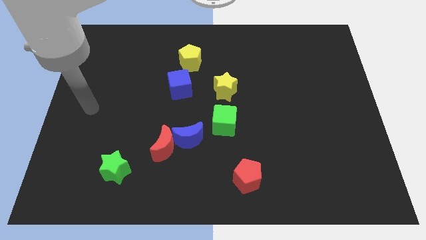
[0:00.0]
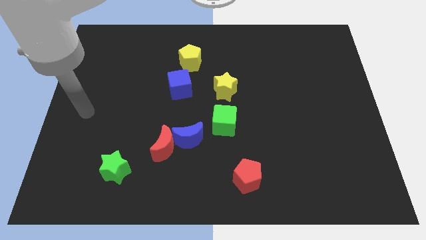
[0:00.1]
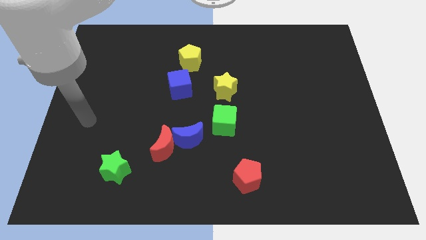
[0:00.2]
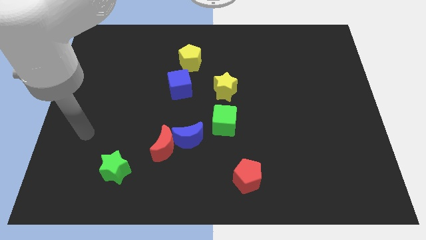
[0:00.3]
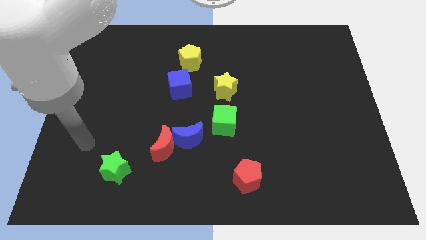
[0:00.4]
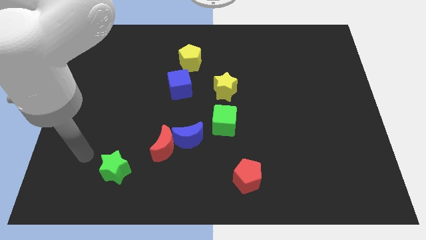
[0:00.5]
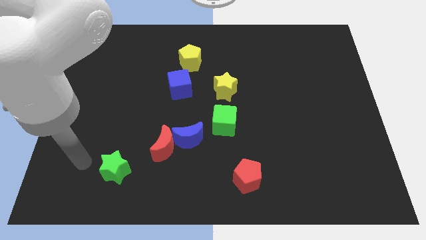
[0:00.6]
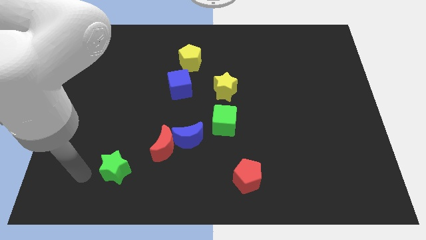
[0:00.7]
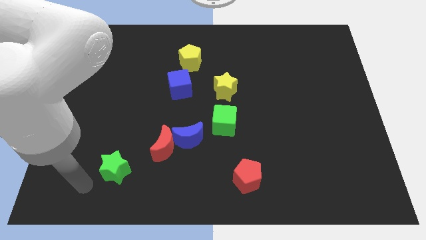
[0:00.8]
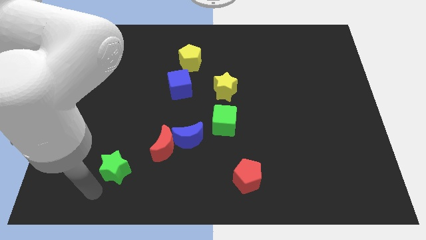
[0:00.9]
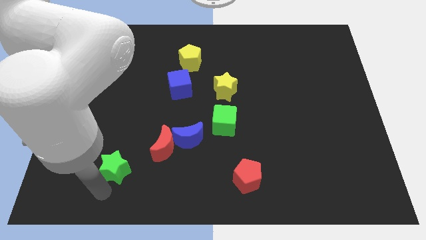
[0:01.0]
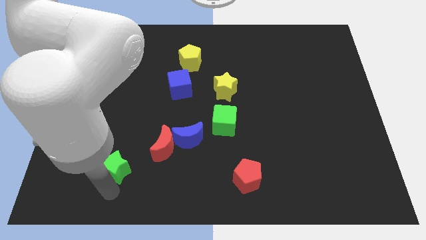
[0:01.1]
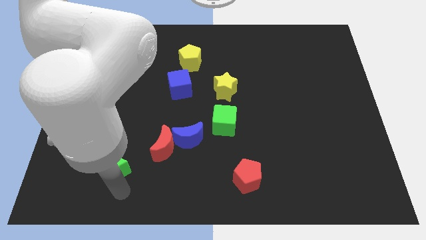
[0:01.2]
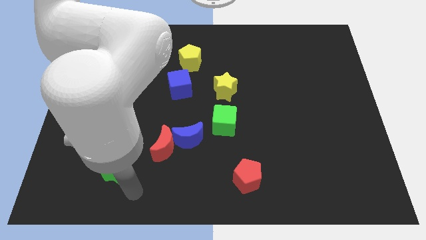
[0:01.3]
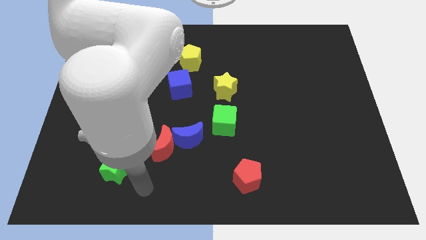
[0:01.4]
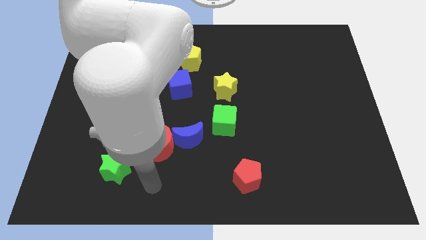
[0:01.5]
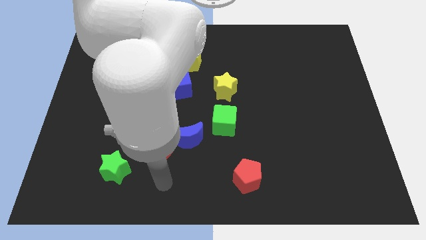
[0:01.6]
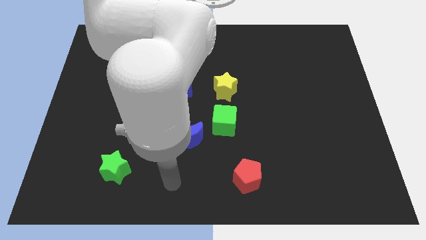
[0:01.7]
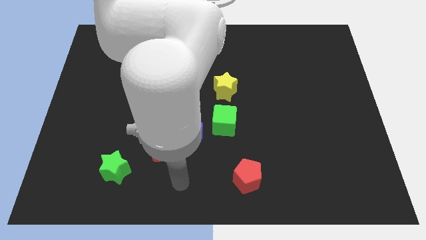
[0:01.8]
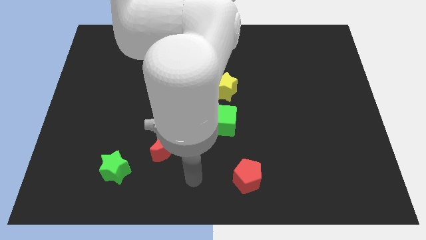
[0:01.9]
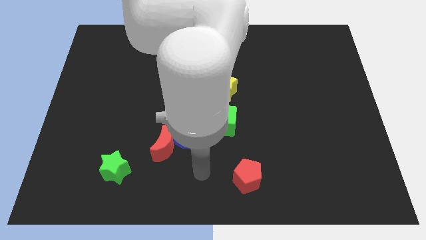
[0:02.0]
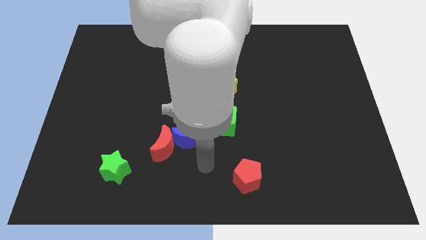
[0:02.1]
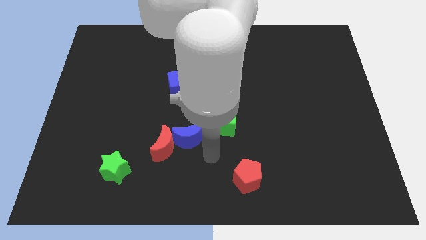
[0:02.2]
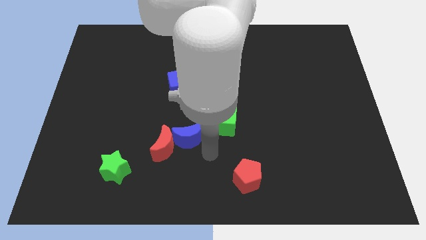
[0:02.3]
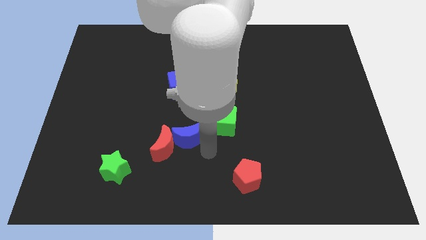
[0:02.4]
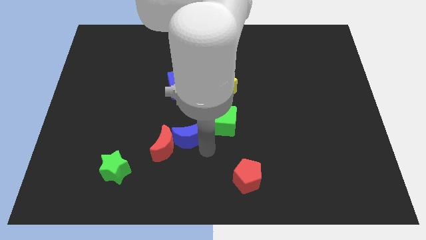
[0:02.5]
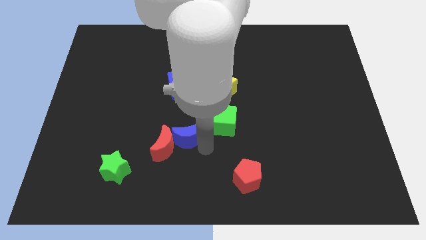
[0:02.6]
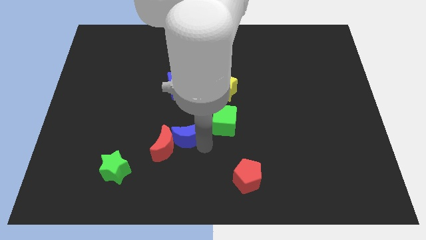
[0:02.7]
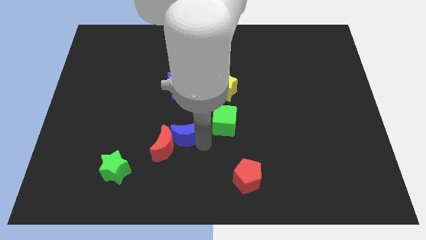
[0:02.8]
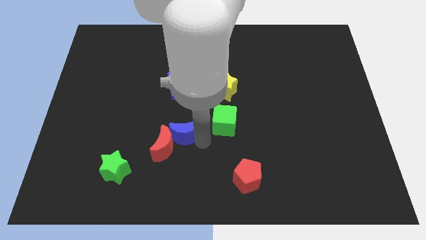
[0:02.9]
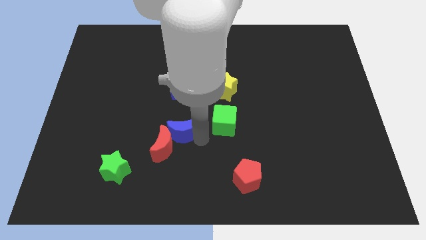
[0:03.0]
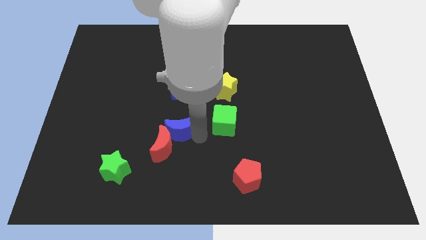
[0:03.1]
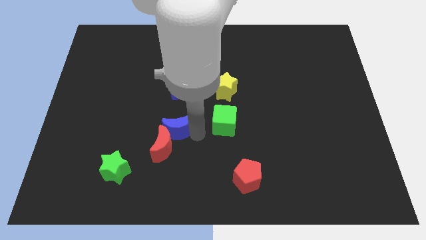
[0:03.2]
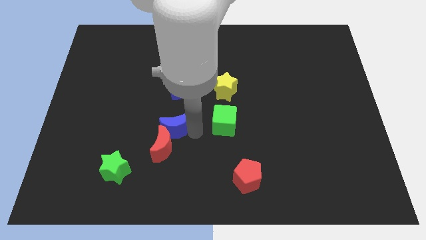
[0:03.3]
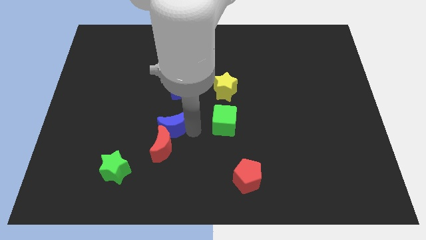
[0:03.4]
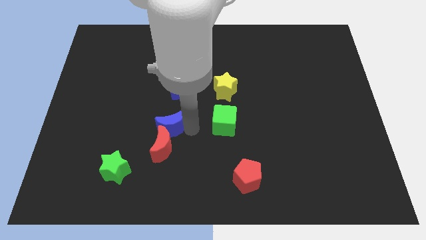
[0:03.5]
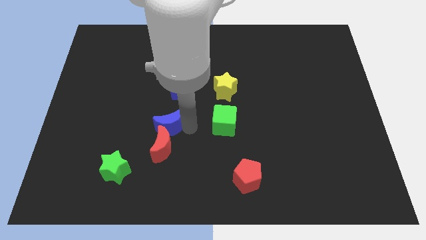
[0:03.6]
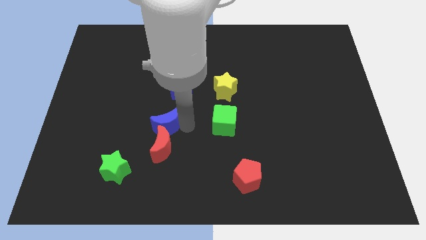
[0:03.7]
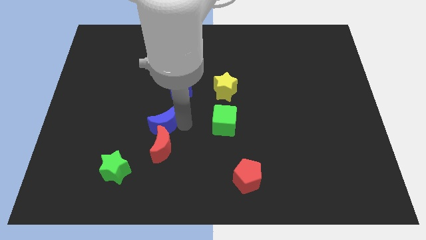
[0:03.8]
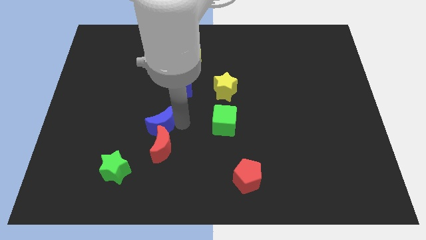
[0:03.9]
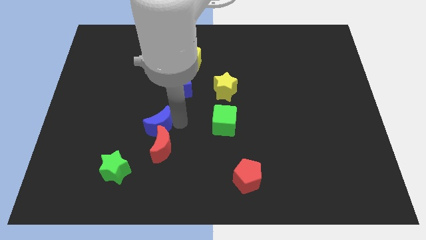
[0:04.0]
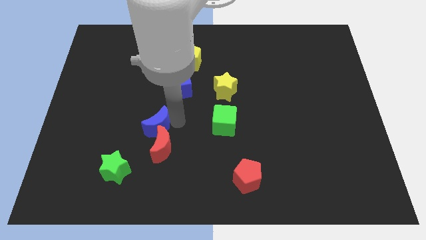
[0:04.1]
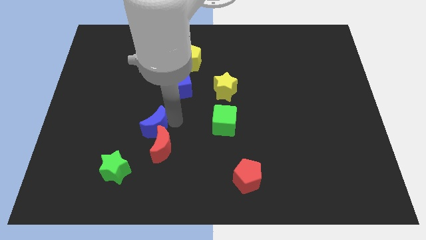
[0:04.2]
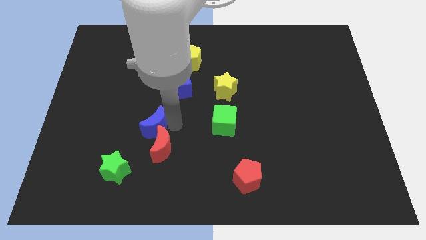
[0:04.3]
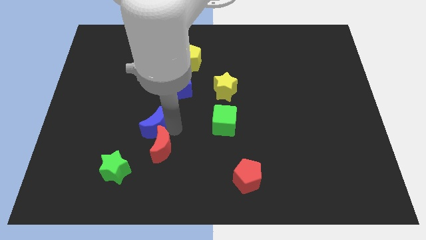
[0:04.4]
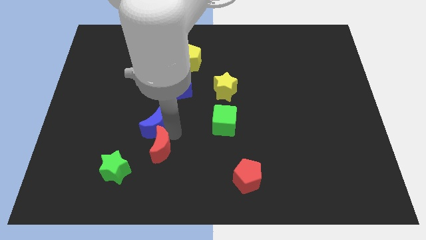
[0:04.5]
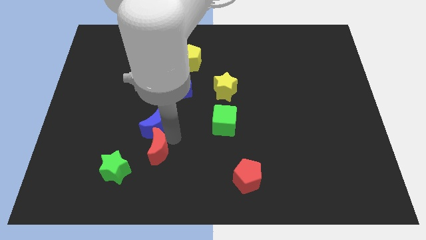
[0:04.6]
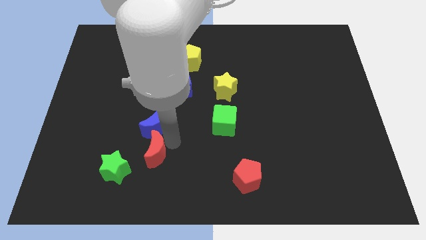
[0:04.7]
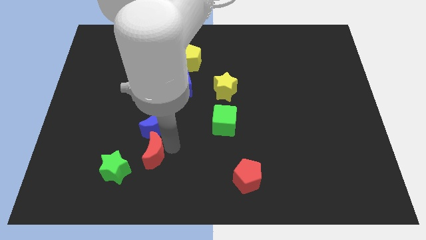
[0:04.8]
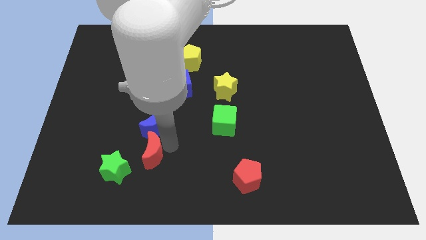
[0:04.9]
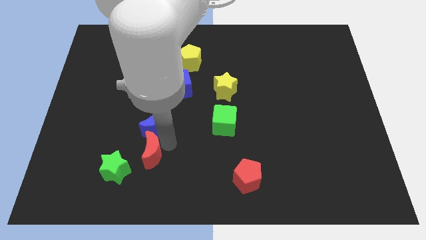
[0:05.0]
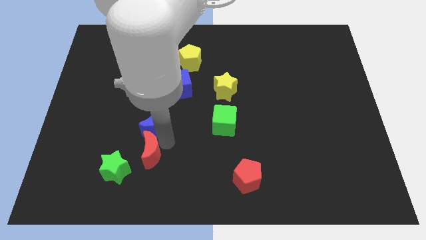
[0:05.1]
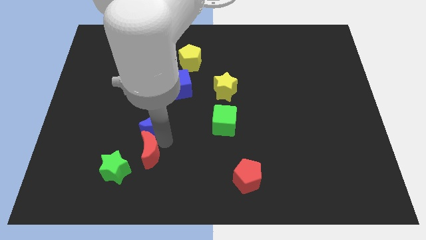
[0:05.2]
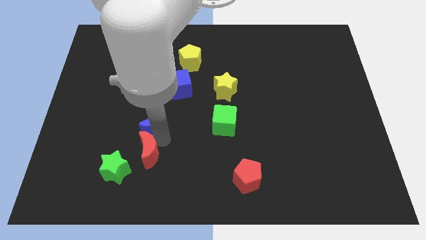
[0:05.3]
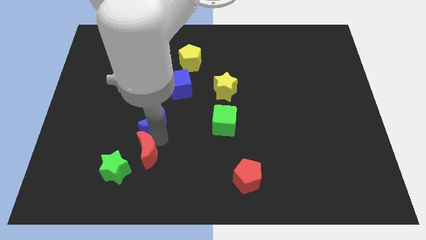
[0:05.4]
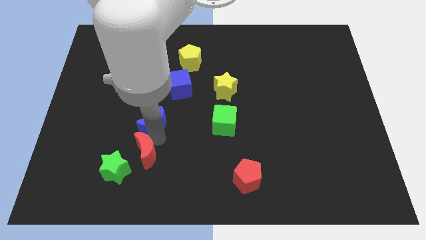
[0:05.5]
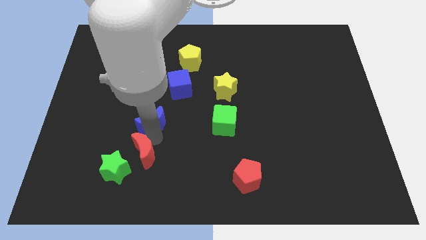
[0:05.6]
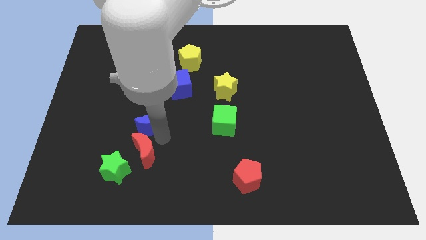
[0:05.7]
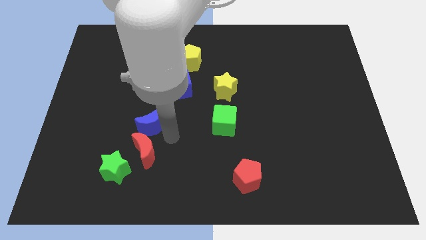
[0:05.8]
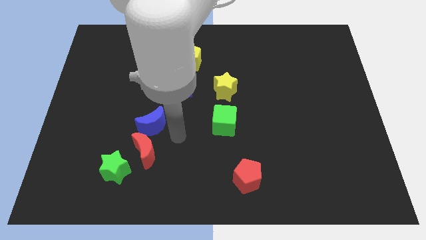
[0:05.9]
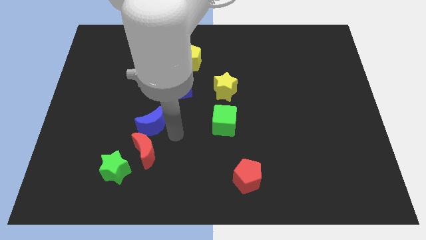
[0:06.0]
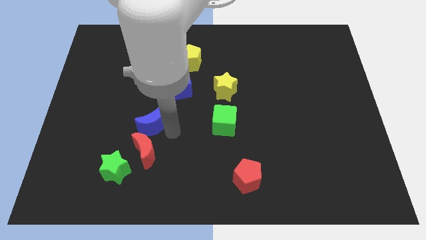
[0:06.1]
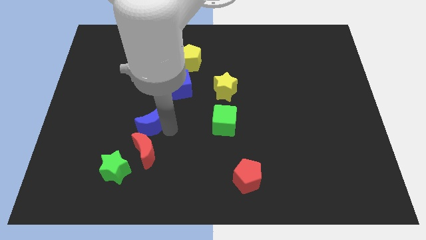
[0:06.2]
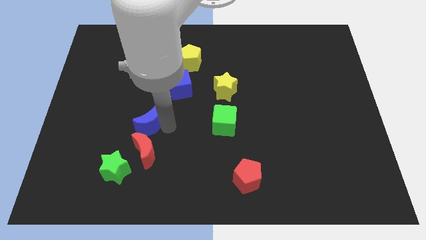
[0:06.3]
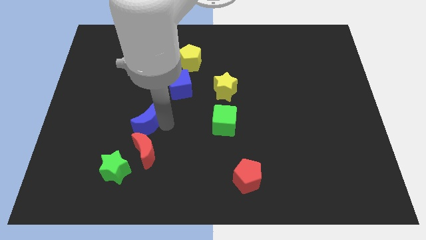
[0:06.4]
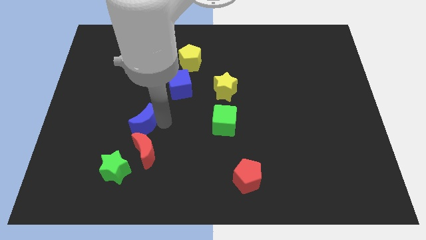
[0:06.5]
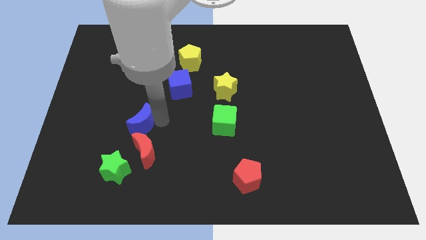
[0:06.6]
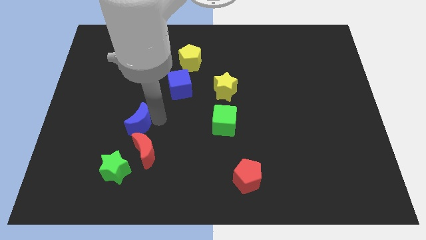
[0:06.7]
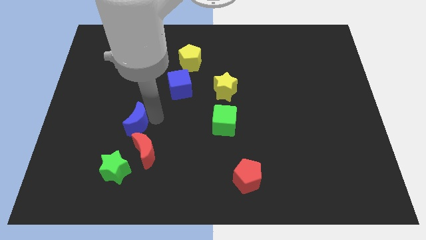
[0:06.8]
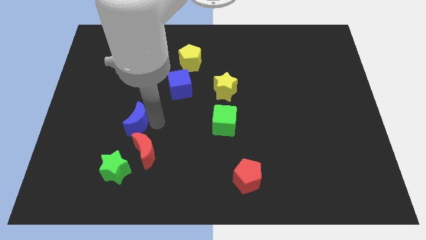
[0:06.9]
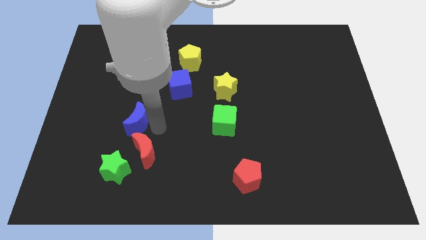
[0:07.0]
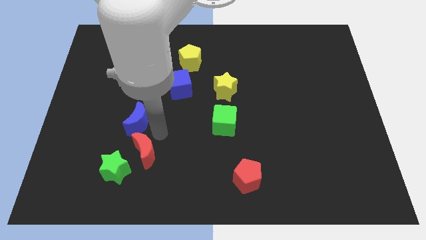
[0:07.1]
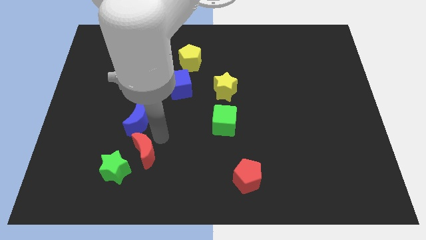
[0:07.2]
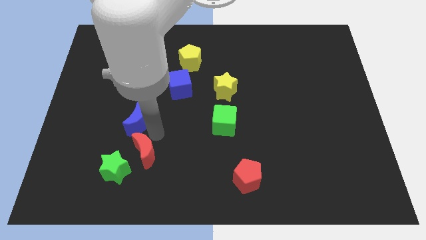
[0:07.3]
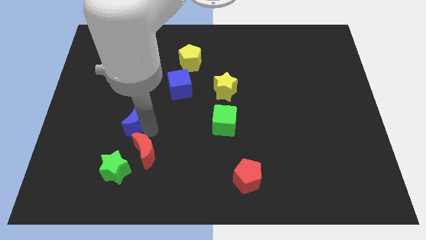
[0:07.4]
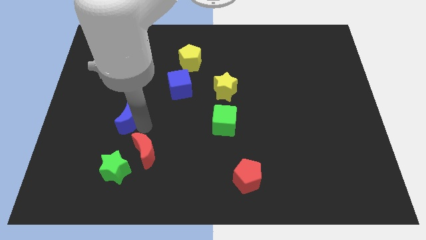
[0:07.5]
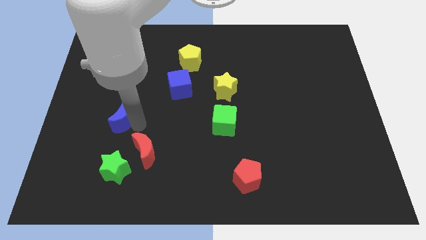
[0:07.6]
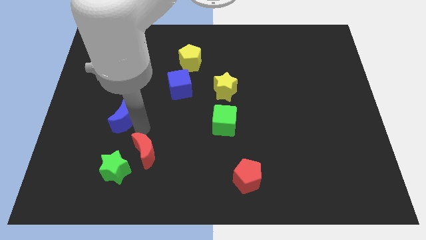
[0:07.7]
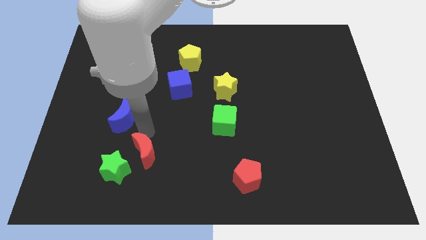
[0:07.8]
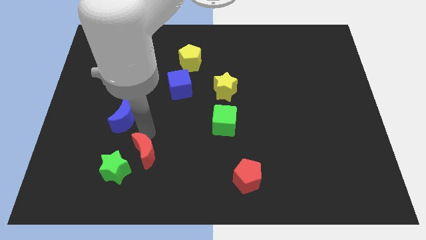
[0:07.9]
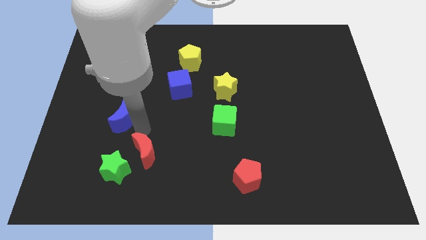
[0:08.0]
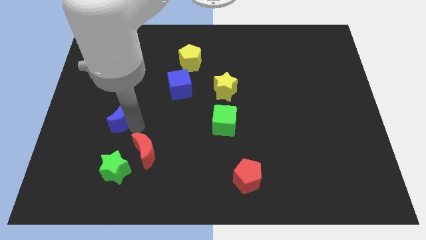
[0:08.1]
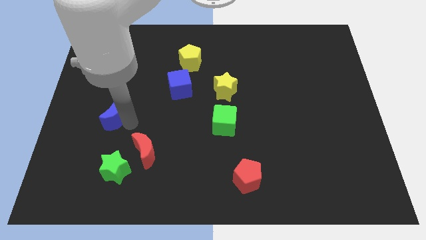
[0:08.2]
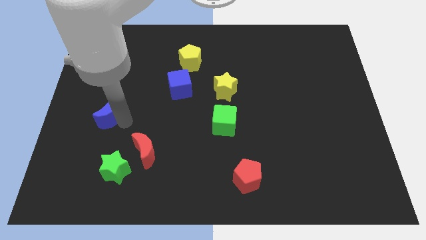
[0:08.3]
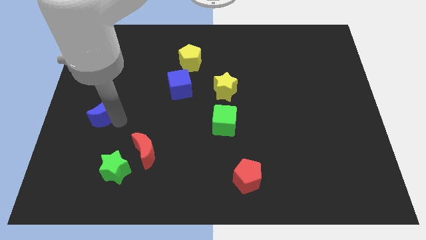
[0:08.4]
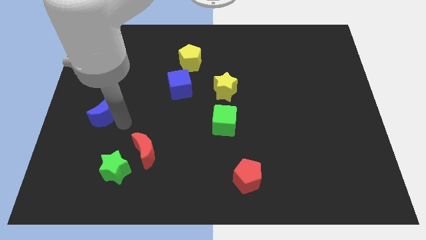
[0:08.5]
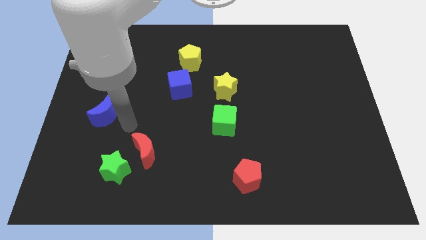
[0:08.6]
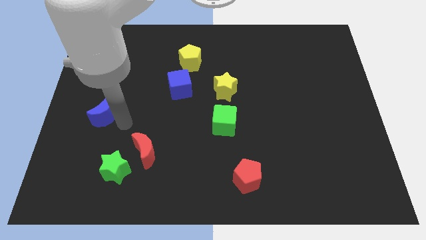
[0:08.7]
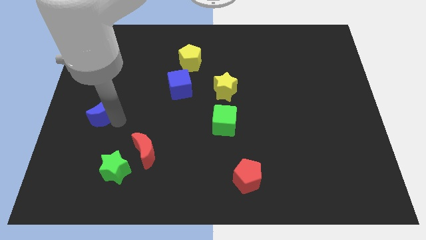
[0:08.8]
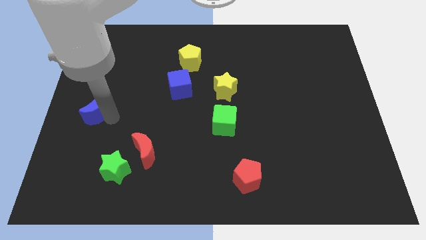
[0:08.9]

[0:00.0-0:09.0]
move the blue moon to the left side
